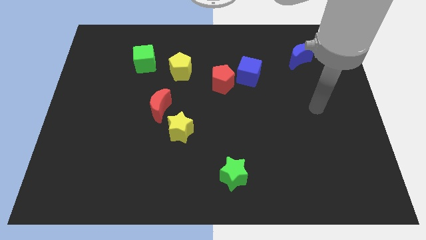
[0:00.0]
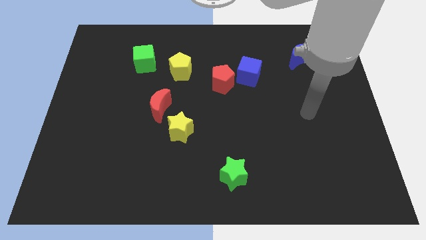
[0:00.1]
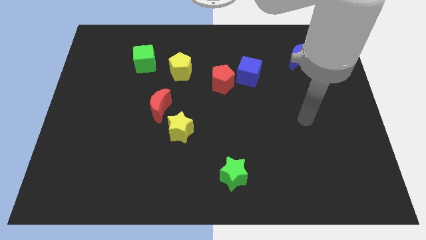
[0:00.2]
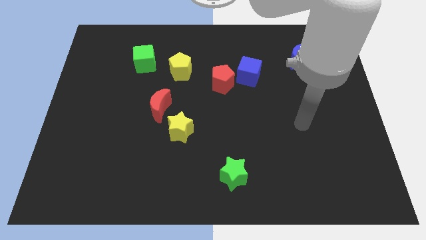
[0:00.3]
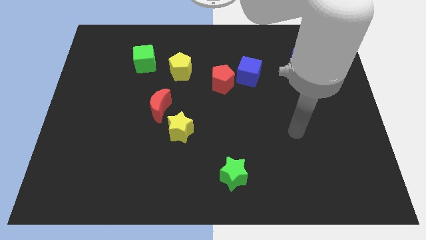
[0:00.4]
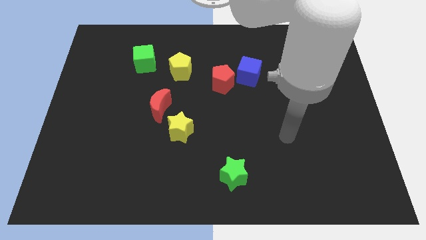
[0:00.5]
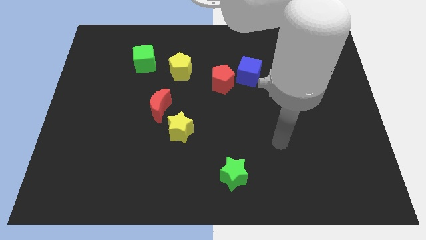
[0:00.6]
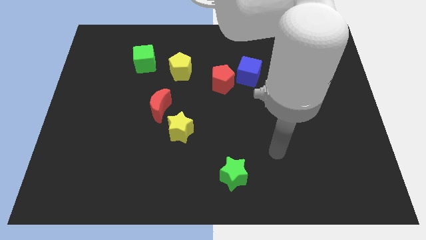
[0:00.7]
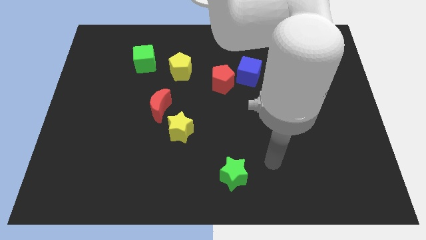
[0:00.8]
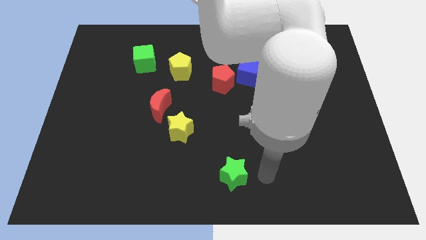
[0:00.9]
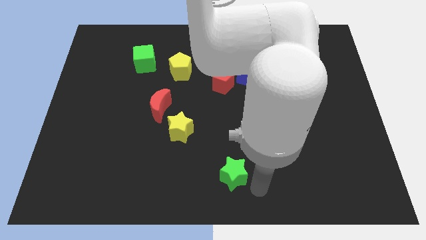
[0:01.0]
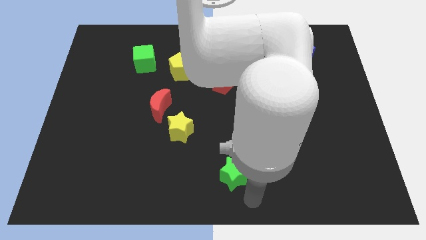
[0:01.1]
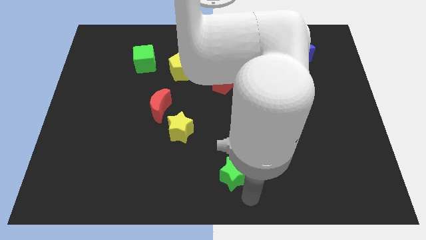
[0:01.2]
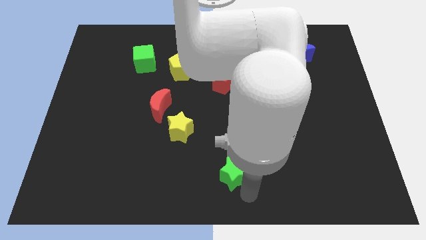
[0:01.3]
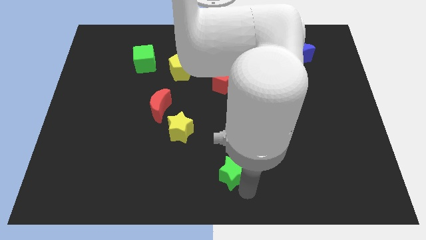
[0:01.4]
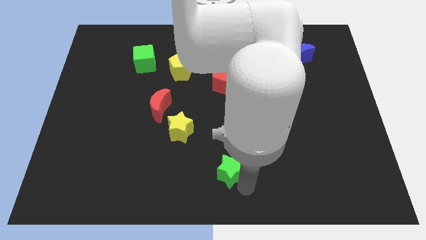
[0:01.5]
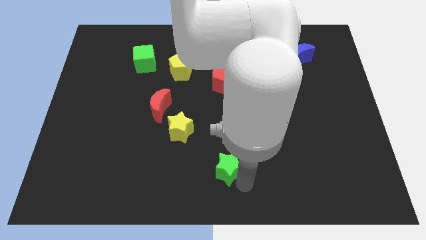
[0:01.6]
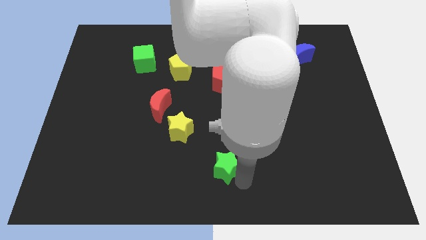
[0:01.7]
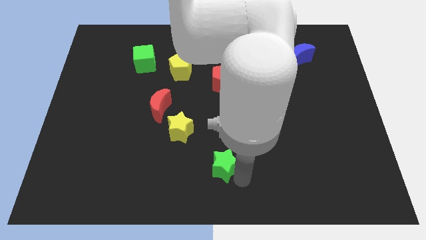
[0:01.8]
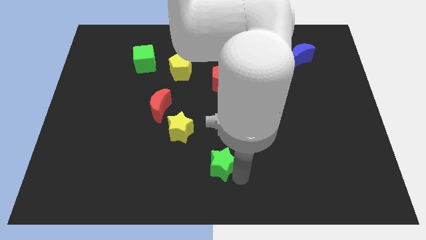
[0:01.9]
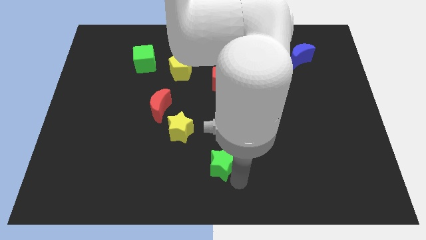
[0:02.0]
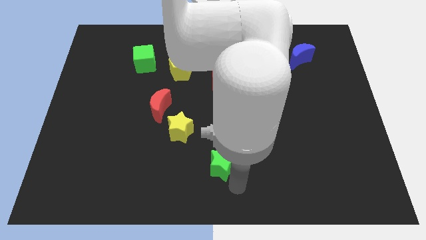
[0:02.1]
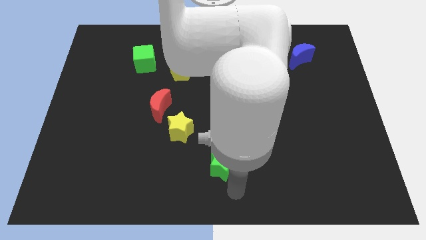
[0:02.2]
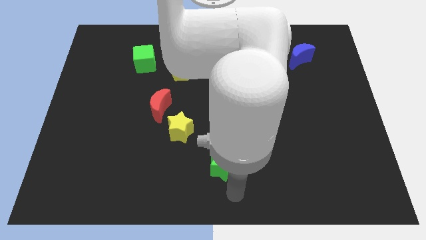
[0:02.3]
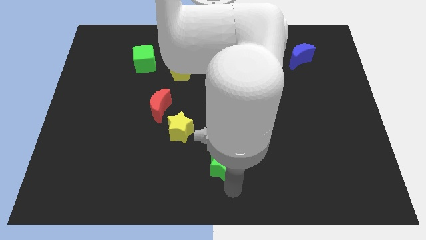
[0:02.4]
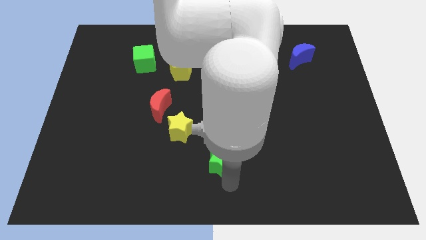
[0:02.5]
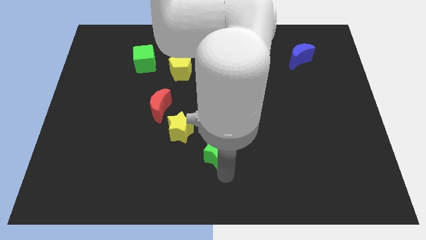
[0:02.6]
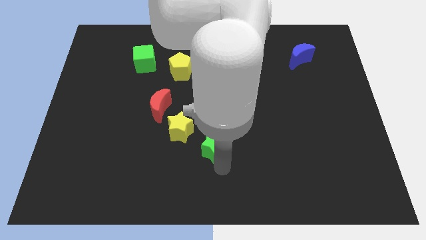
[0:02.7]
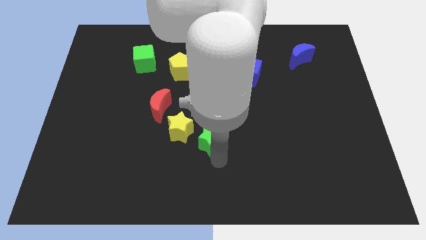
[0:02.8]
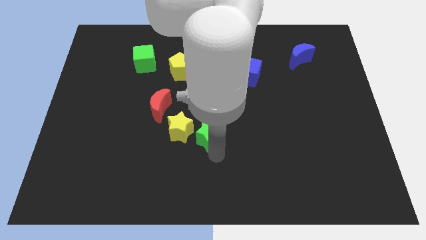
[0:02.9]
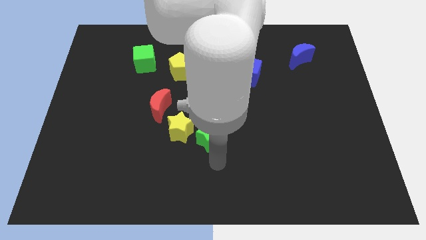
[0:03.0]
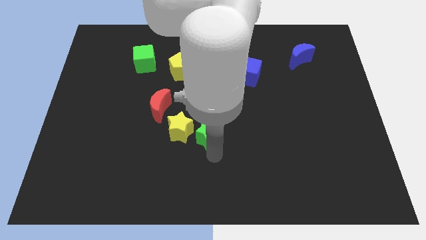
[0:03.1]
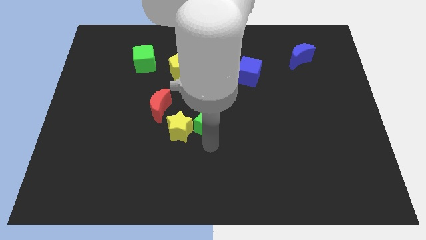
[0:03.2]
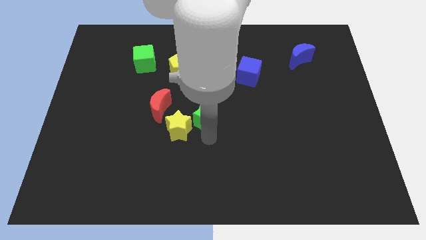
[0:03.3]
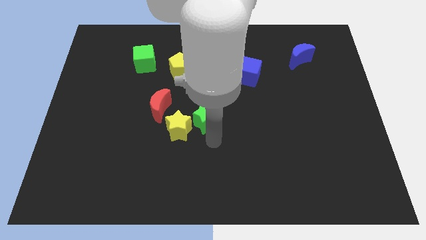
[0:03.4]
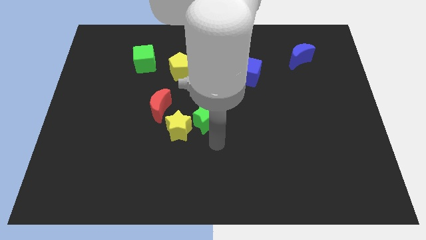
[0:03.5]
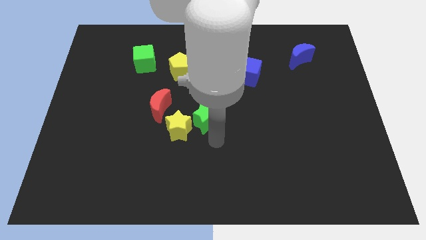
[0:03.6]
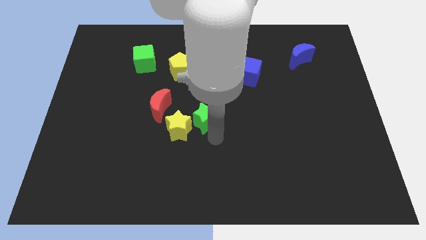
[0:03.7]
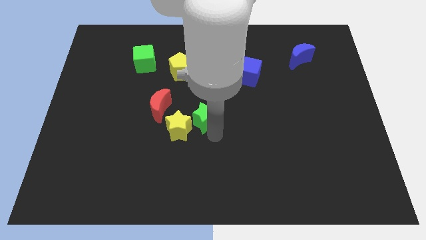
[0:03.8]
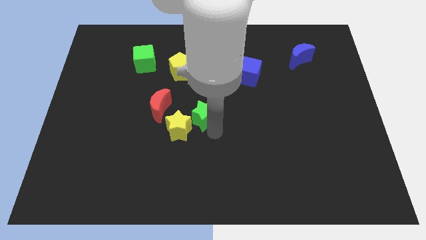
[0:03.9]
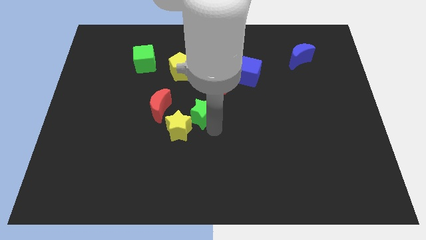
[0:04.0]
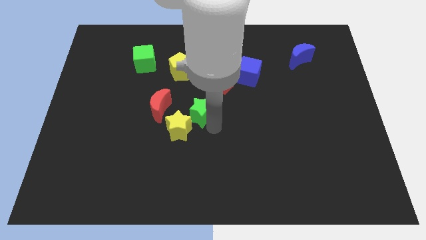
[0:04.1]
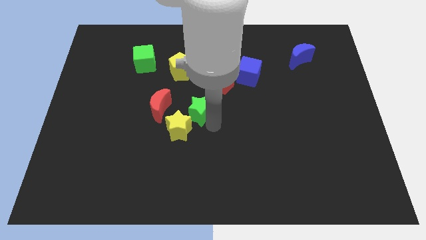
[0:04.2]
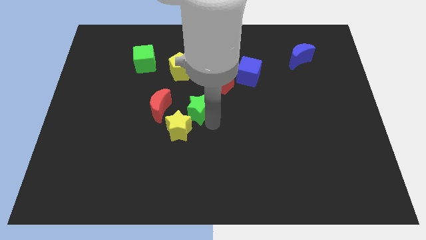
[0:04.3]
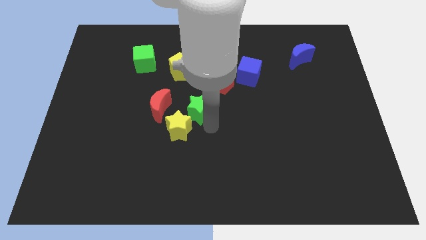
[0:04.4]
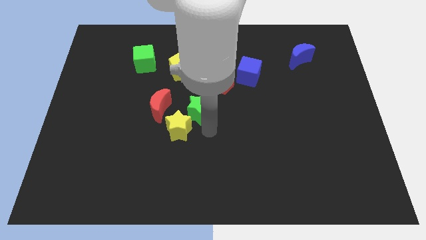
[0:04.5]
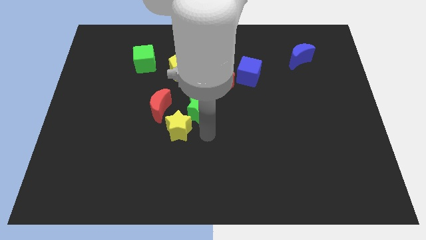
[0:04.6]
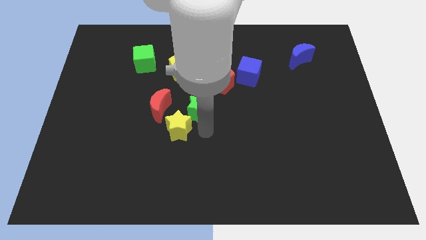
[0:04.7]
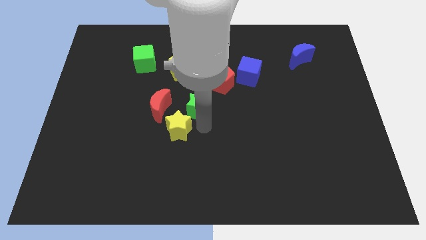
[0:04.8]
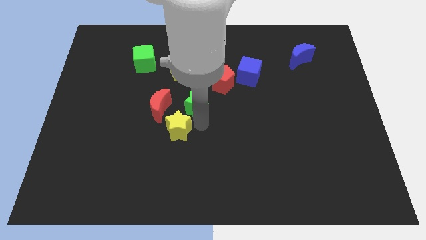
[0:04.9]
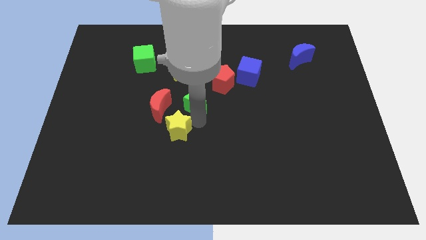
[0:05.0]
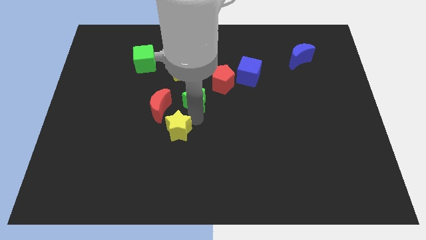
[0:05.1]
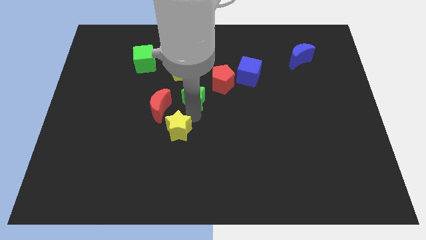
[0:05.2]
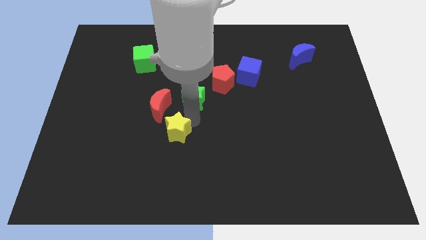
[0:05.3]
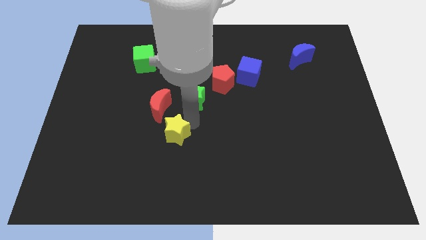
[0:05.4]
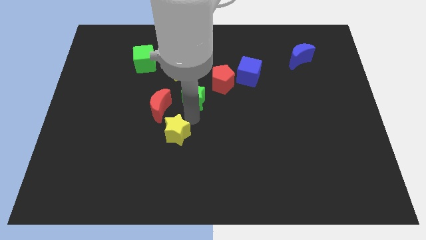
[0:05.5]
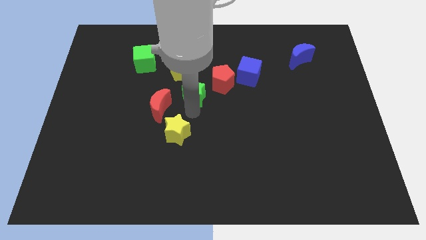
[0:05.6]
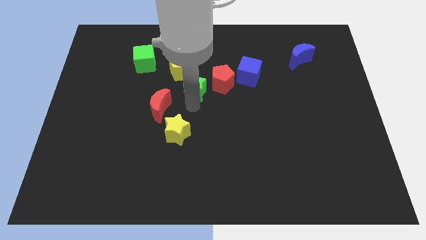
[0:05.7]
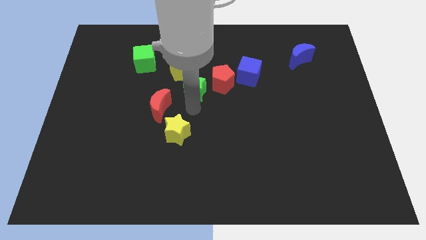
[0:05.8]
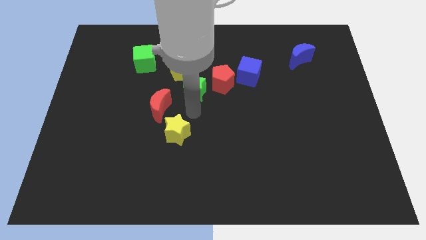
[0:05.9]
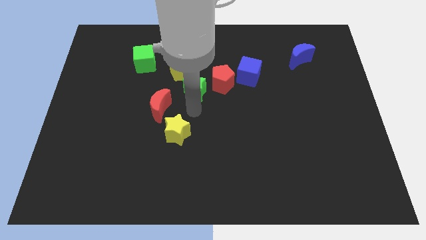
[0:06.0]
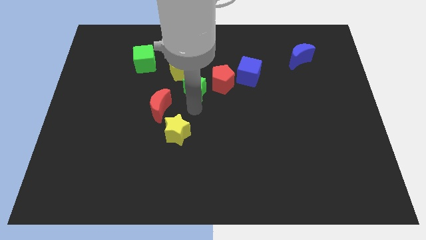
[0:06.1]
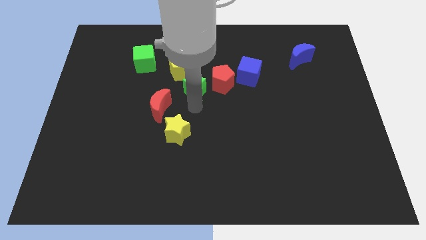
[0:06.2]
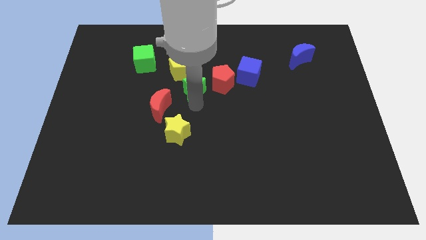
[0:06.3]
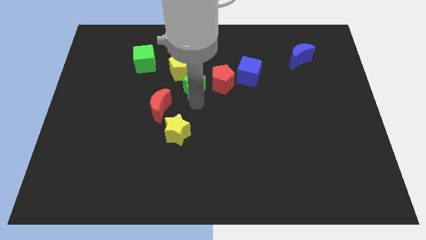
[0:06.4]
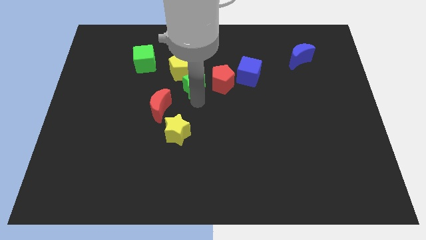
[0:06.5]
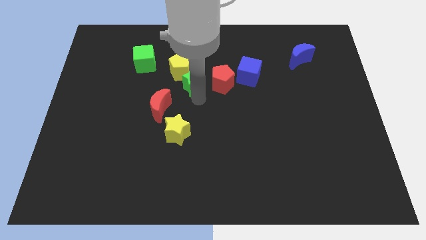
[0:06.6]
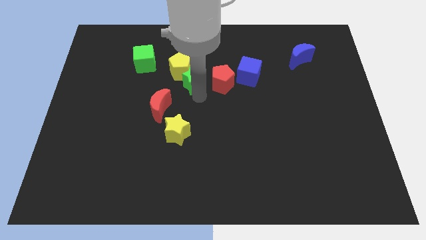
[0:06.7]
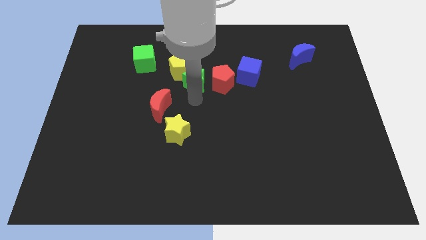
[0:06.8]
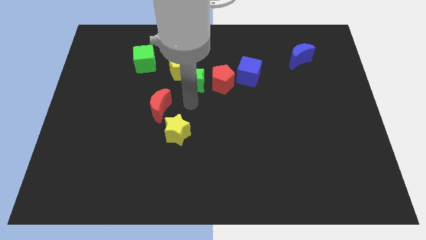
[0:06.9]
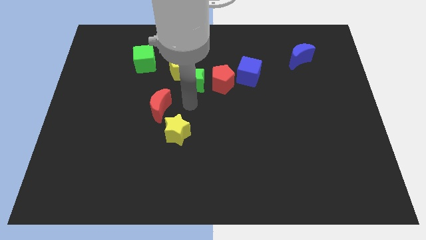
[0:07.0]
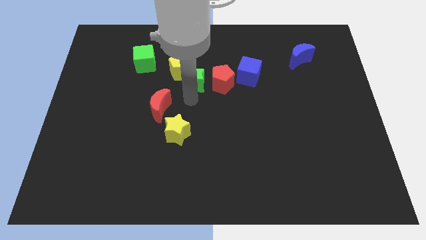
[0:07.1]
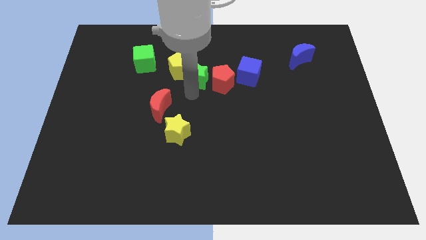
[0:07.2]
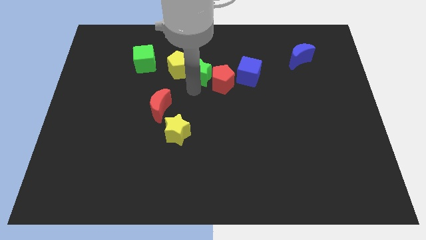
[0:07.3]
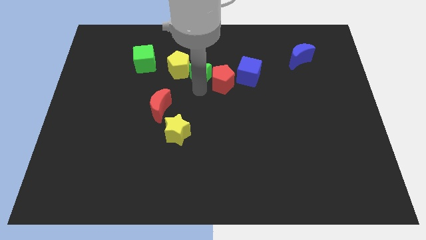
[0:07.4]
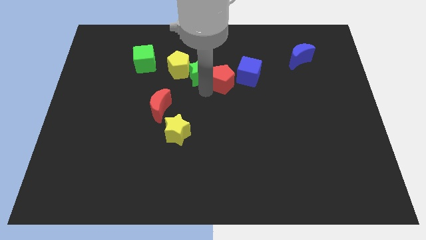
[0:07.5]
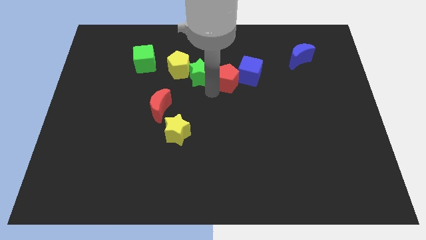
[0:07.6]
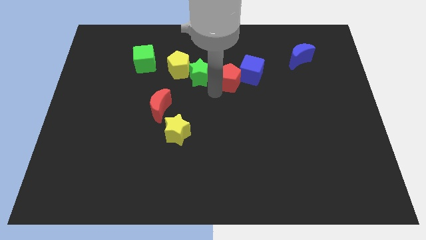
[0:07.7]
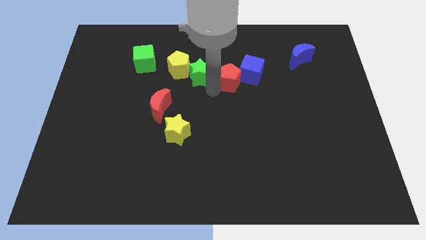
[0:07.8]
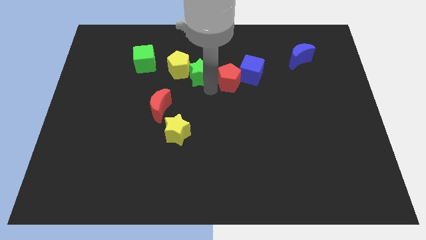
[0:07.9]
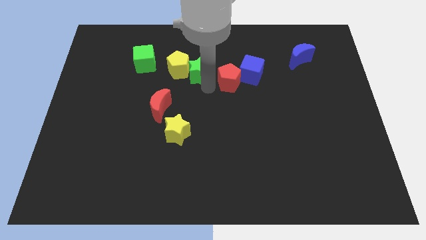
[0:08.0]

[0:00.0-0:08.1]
put the green star just right of the green cube
